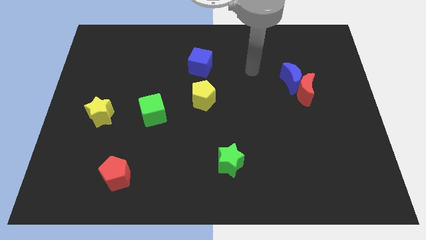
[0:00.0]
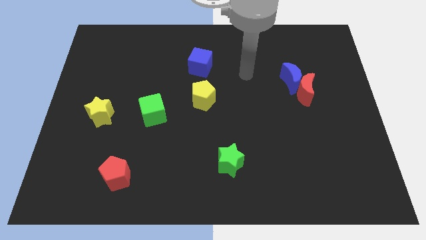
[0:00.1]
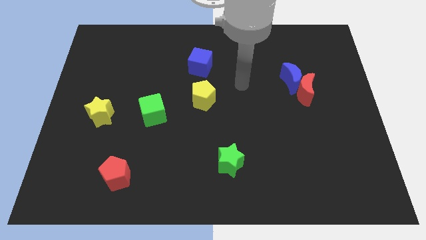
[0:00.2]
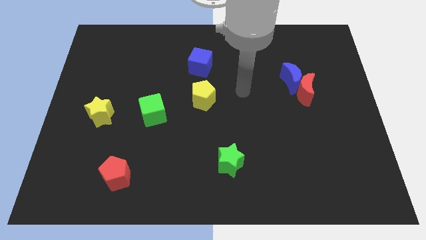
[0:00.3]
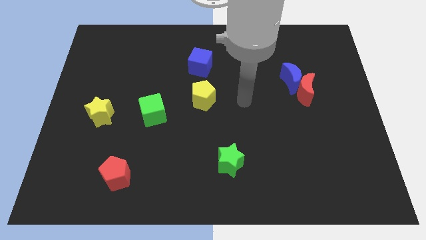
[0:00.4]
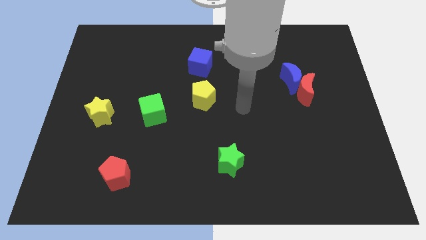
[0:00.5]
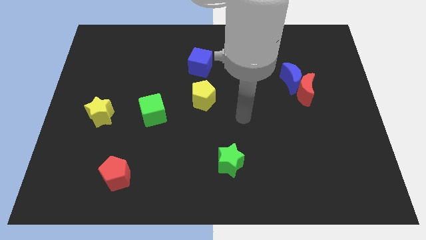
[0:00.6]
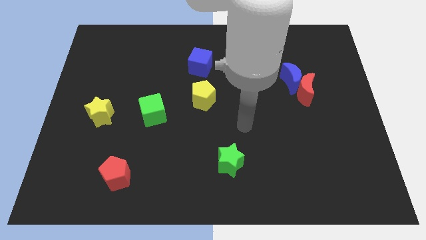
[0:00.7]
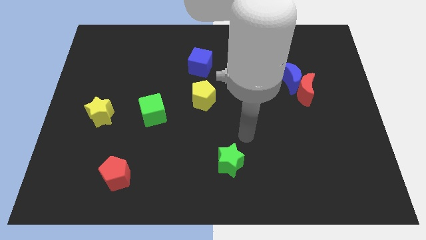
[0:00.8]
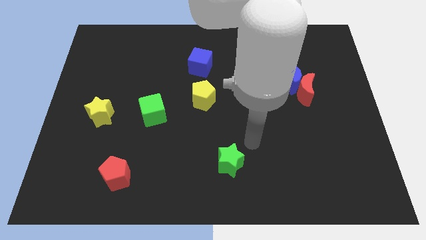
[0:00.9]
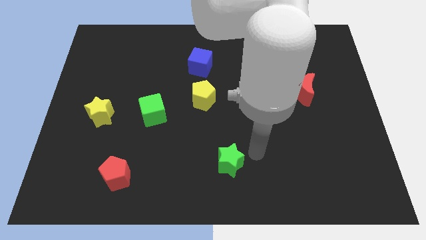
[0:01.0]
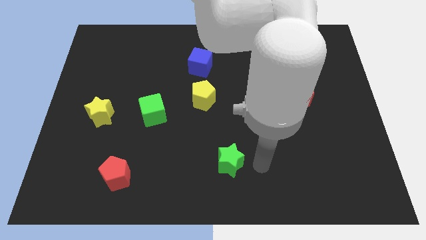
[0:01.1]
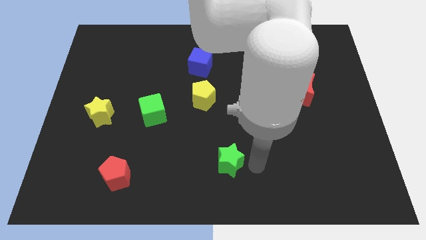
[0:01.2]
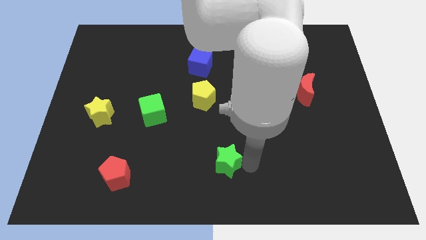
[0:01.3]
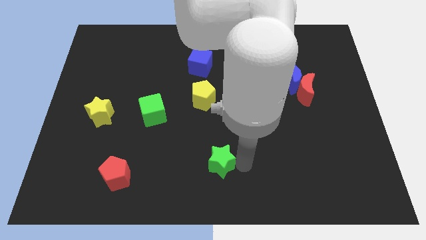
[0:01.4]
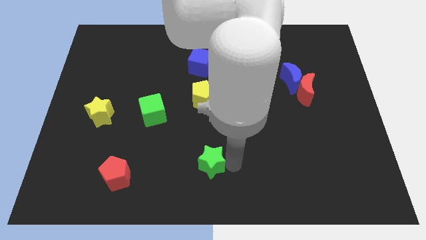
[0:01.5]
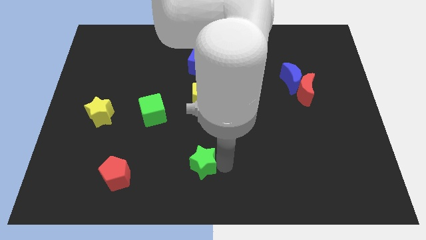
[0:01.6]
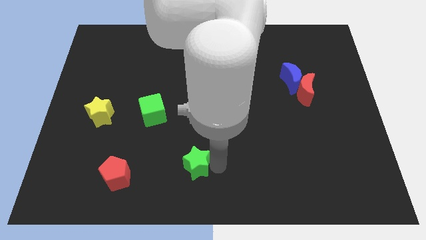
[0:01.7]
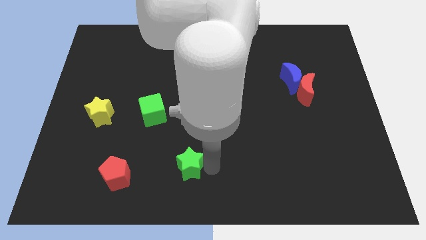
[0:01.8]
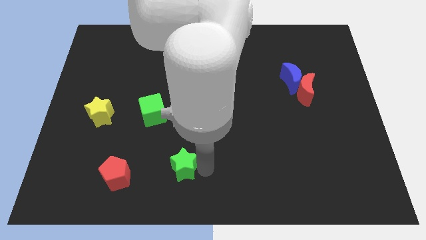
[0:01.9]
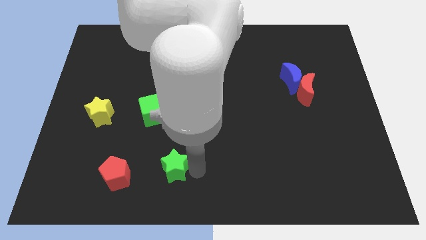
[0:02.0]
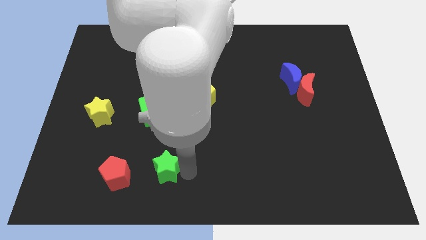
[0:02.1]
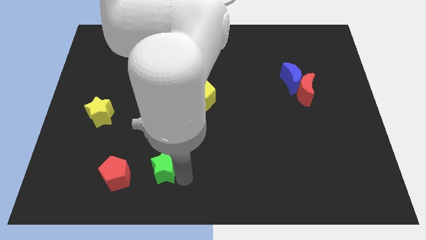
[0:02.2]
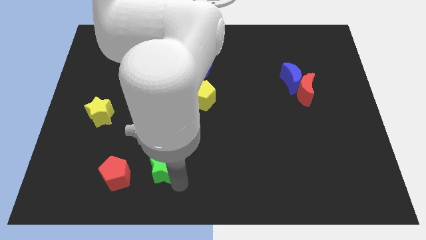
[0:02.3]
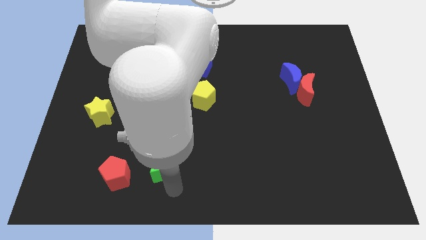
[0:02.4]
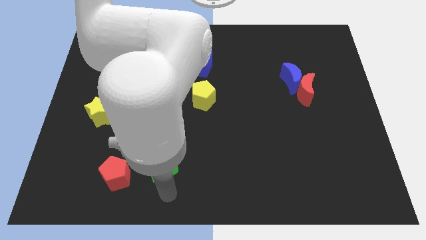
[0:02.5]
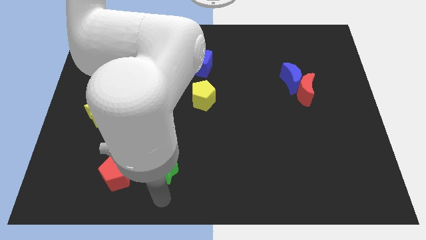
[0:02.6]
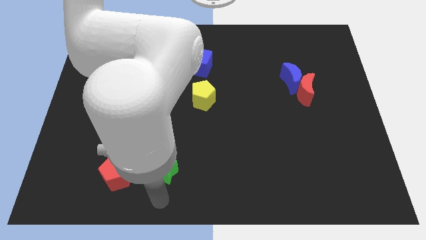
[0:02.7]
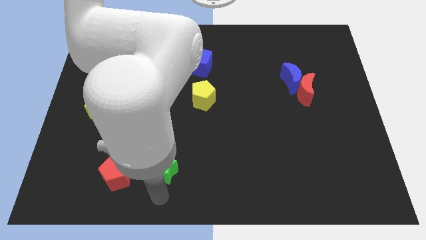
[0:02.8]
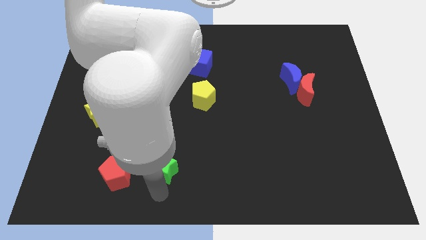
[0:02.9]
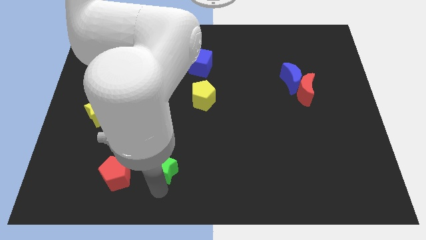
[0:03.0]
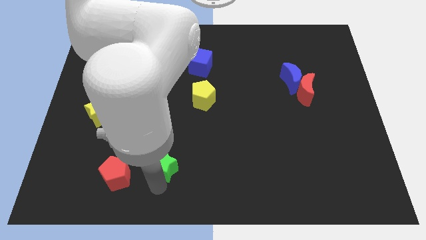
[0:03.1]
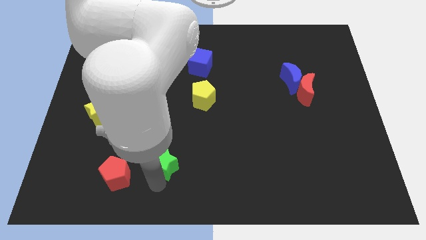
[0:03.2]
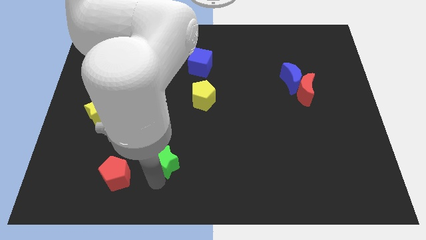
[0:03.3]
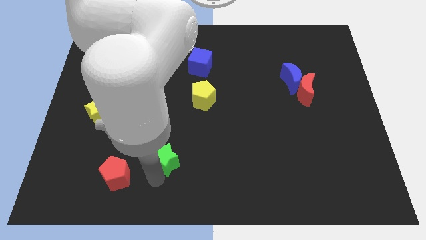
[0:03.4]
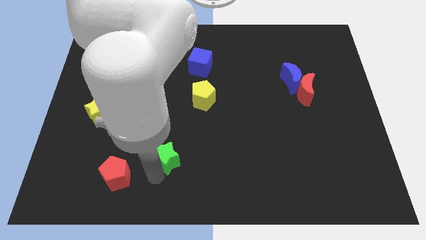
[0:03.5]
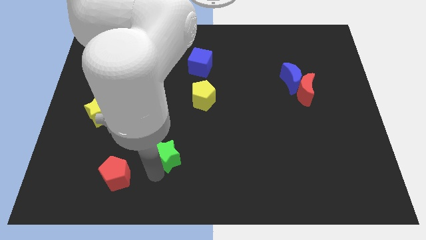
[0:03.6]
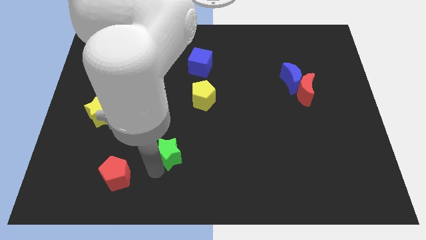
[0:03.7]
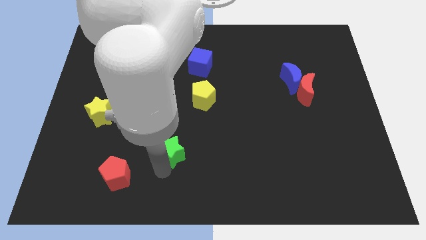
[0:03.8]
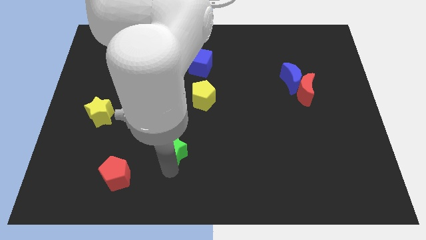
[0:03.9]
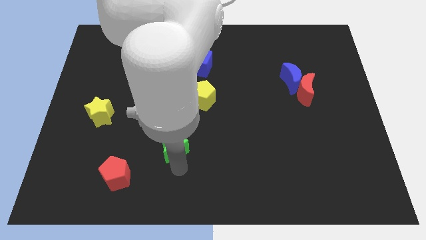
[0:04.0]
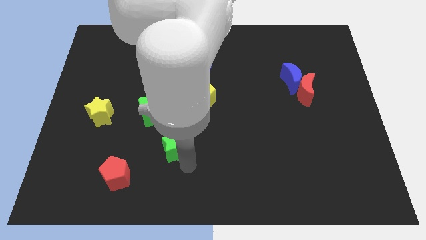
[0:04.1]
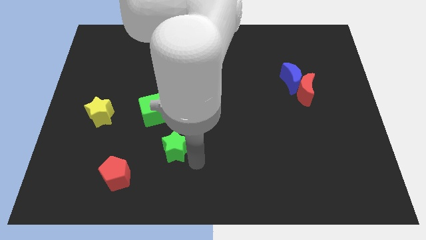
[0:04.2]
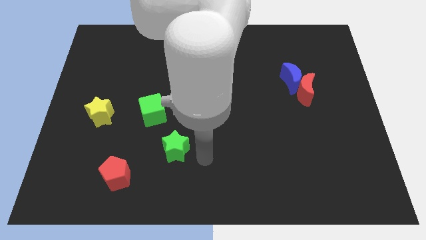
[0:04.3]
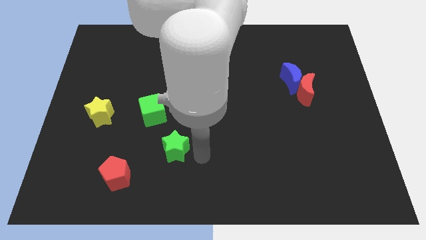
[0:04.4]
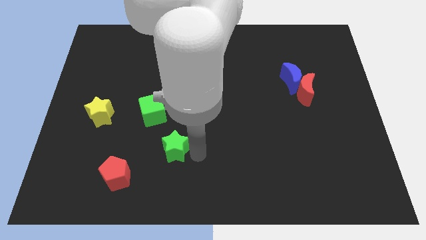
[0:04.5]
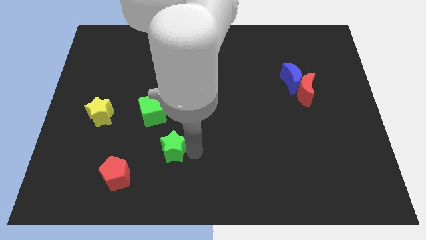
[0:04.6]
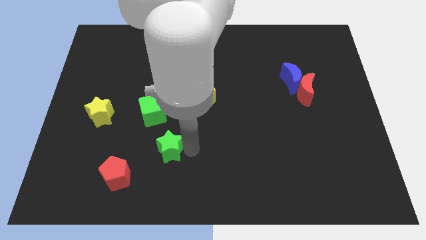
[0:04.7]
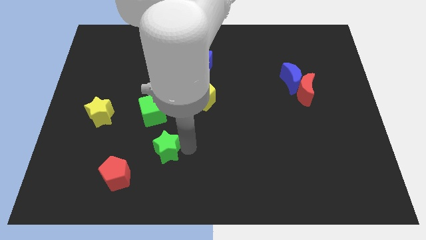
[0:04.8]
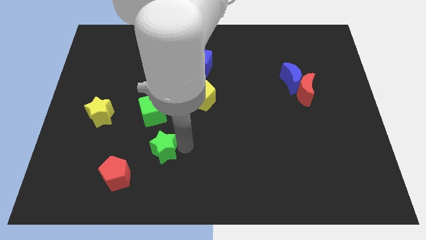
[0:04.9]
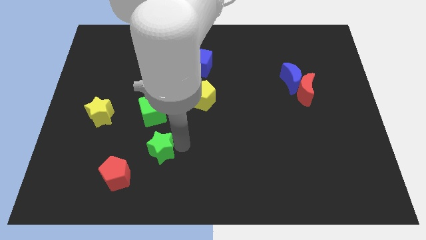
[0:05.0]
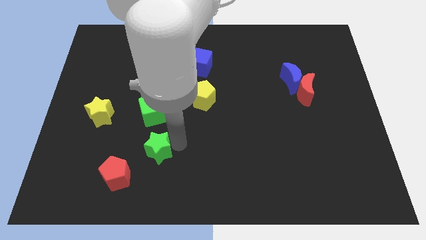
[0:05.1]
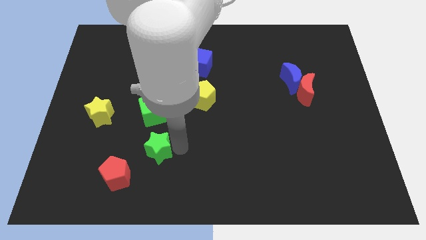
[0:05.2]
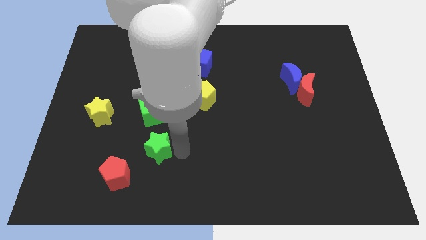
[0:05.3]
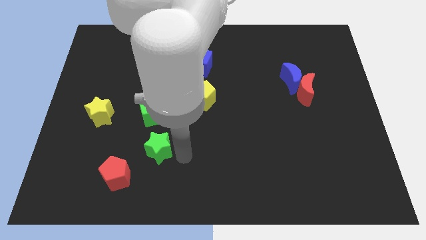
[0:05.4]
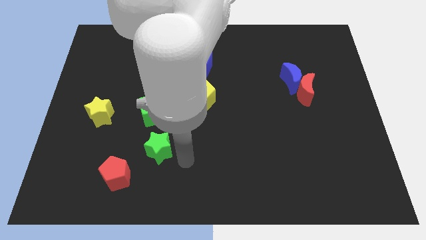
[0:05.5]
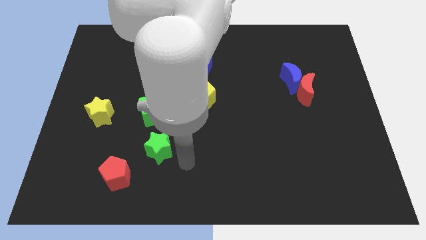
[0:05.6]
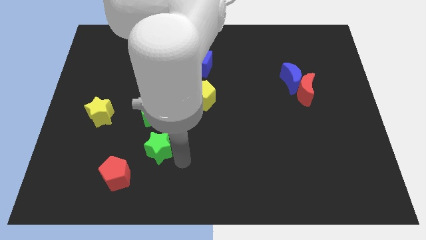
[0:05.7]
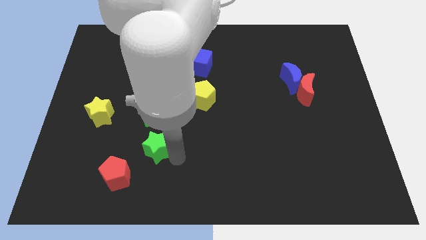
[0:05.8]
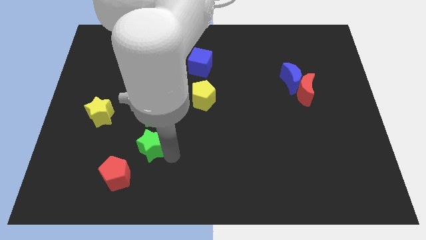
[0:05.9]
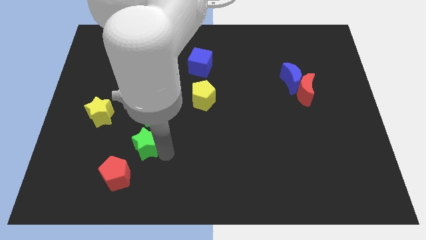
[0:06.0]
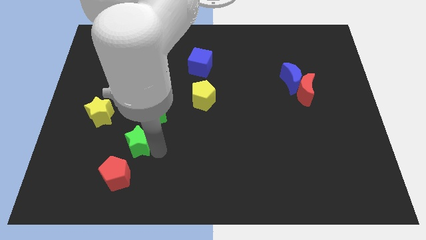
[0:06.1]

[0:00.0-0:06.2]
move the green star to the top of the red pentagon

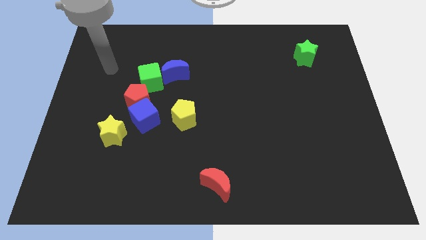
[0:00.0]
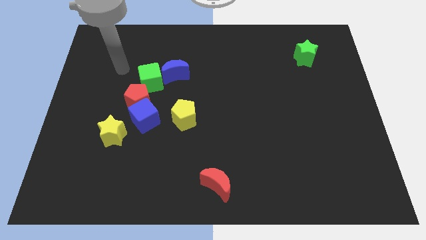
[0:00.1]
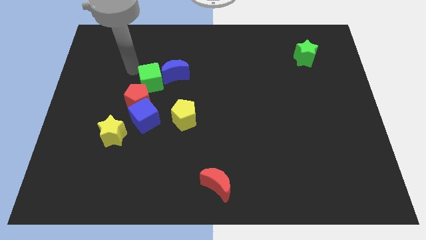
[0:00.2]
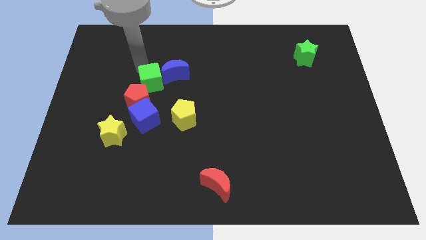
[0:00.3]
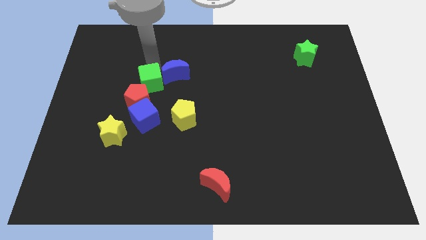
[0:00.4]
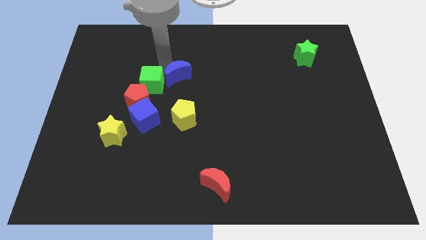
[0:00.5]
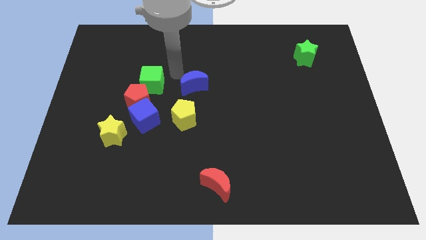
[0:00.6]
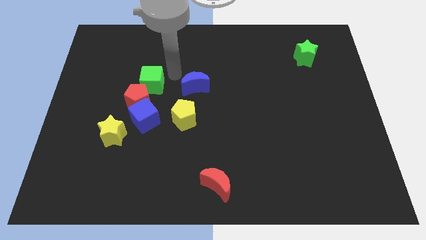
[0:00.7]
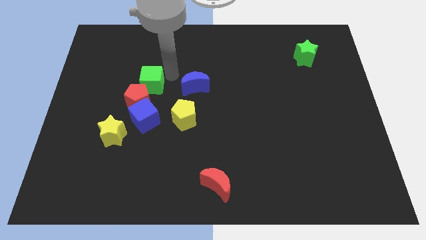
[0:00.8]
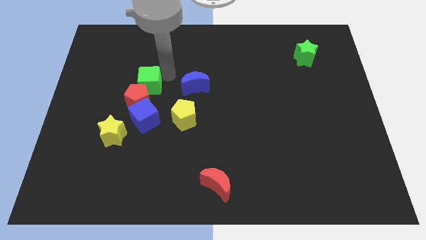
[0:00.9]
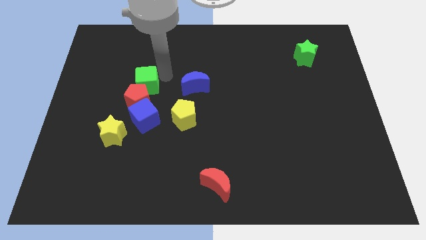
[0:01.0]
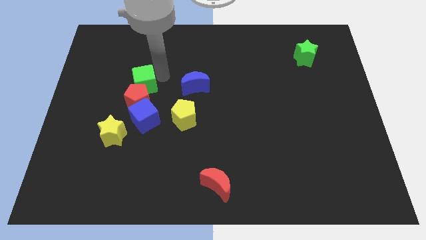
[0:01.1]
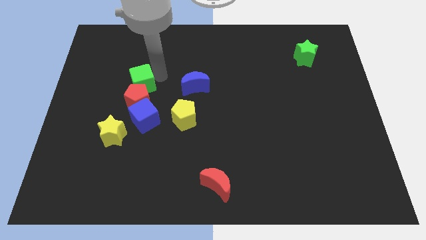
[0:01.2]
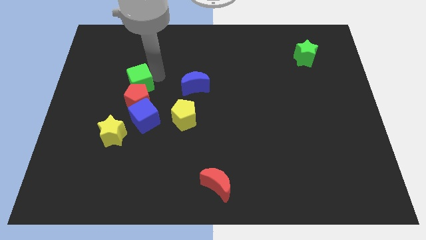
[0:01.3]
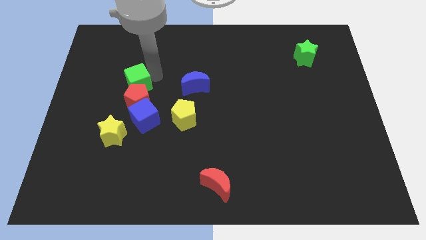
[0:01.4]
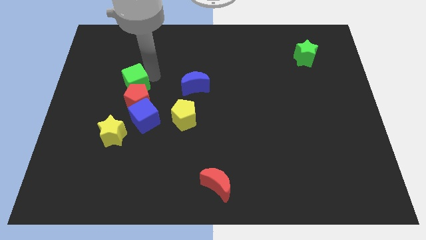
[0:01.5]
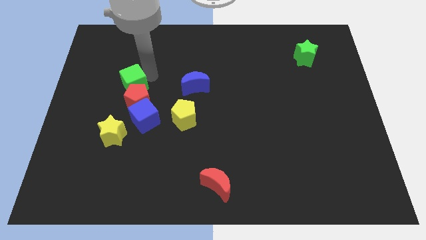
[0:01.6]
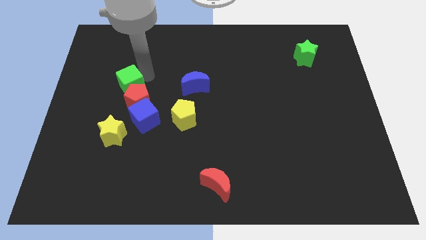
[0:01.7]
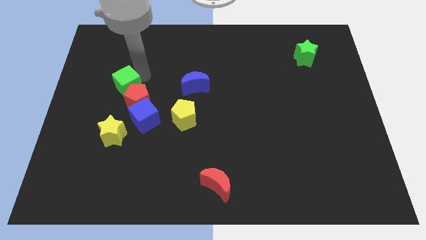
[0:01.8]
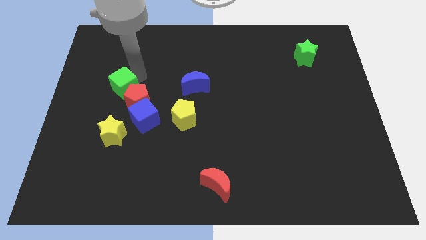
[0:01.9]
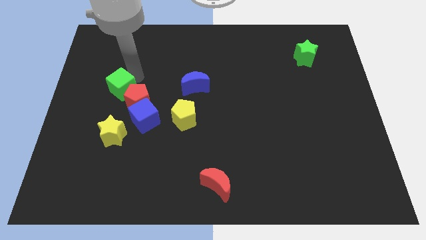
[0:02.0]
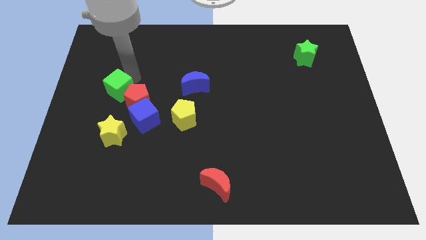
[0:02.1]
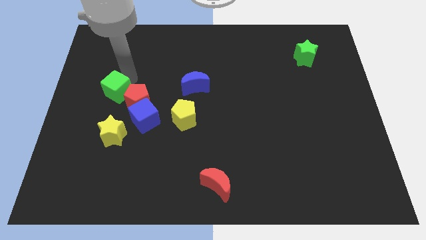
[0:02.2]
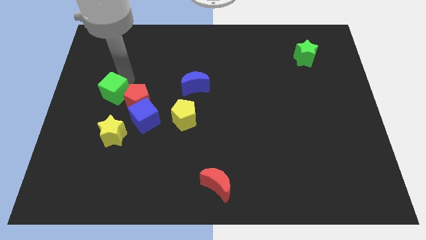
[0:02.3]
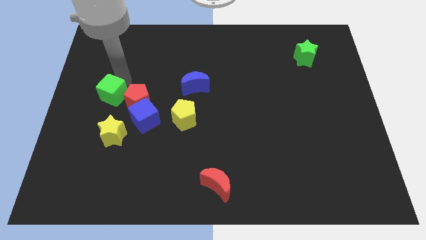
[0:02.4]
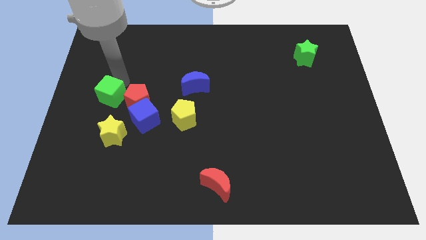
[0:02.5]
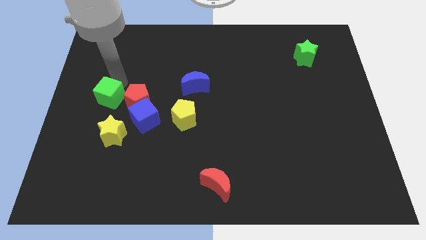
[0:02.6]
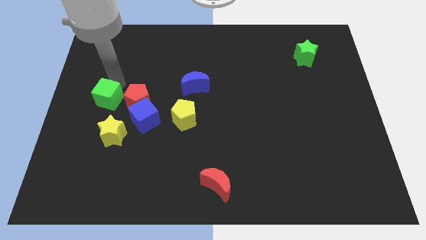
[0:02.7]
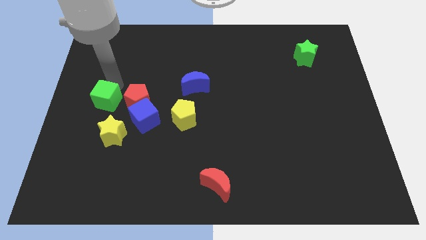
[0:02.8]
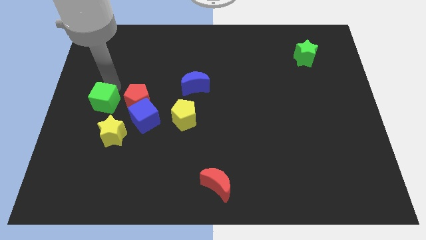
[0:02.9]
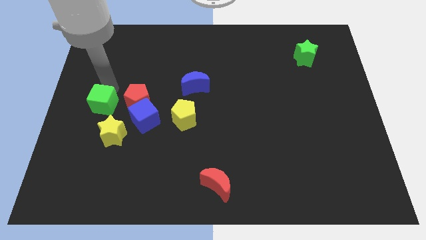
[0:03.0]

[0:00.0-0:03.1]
push the green cube to the left side of the blue cube
